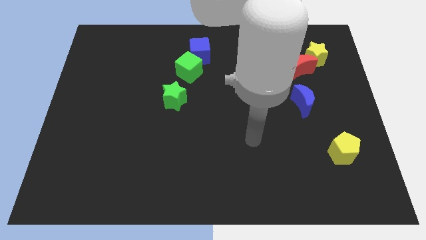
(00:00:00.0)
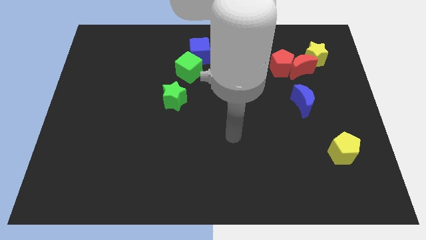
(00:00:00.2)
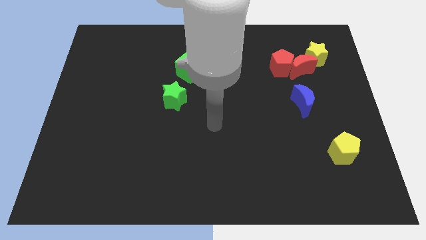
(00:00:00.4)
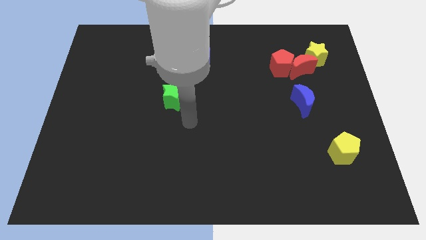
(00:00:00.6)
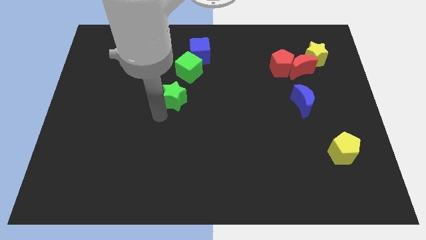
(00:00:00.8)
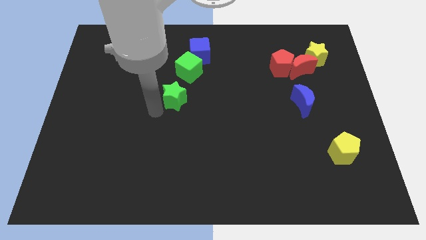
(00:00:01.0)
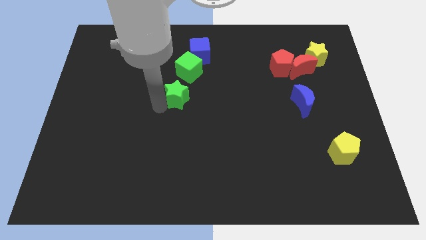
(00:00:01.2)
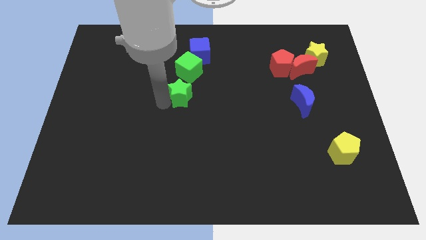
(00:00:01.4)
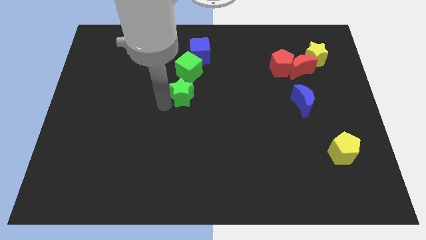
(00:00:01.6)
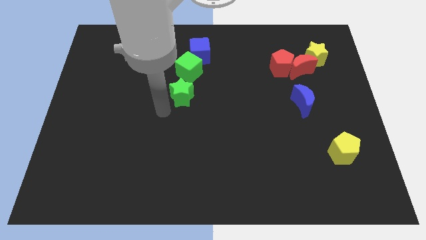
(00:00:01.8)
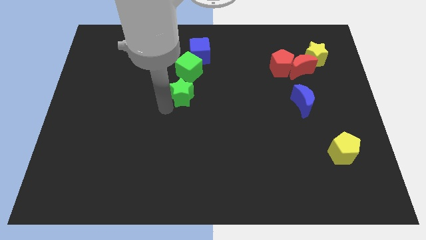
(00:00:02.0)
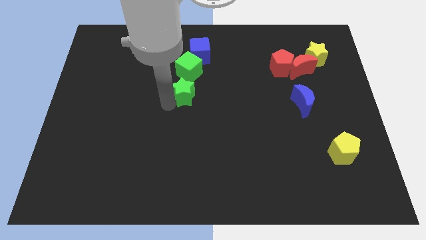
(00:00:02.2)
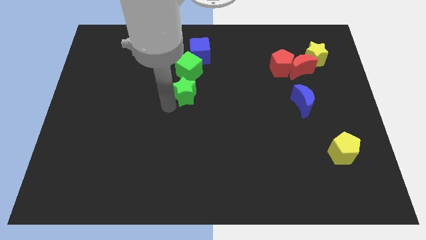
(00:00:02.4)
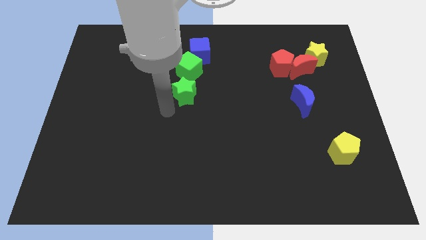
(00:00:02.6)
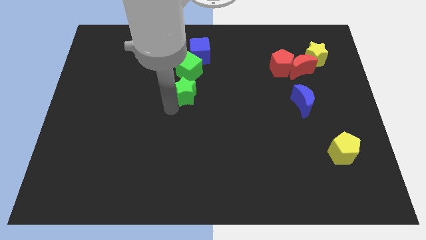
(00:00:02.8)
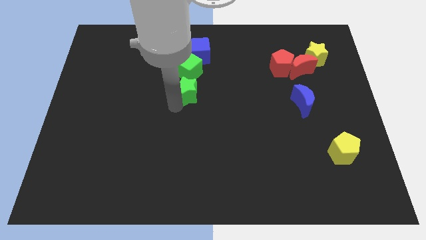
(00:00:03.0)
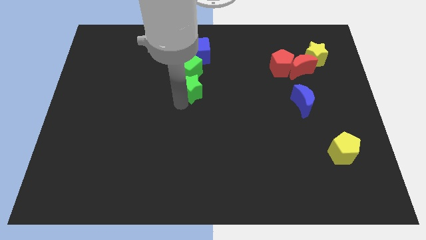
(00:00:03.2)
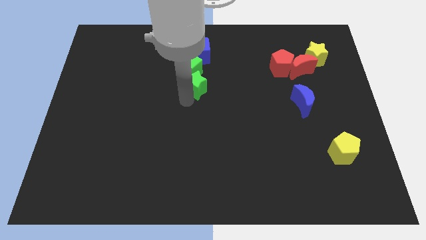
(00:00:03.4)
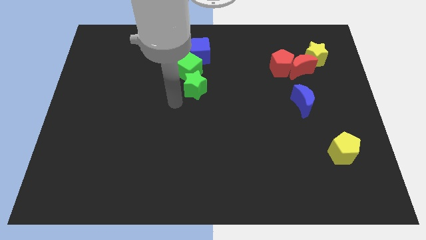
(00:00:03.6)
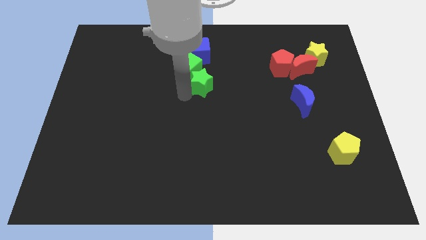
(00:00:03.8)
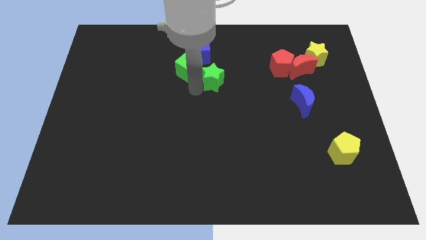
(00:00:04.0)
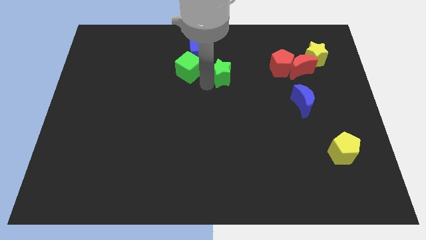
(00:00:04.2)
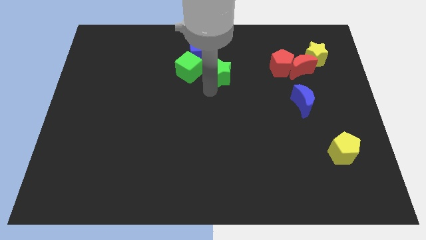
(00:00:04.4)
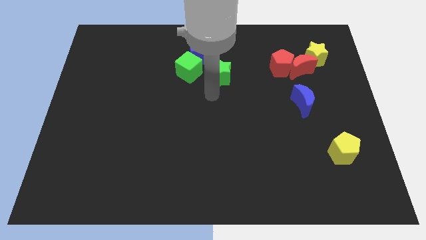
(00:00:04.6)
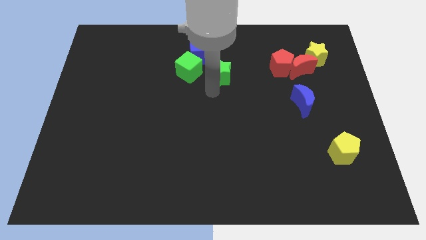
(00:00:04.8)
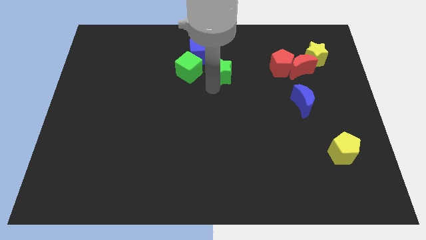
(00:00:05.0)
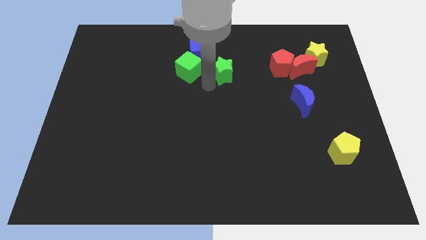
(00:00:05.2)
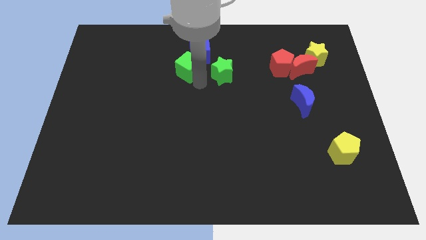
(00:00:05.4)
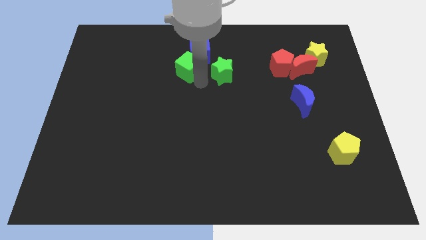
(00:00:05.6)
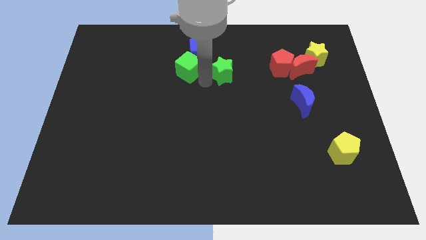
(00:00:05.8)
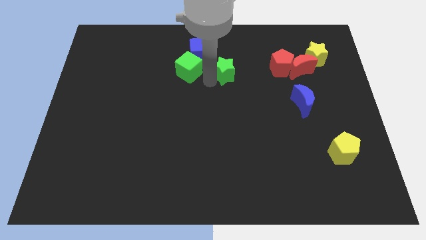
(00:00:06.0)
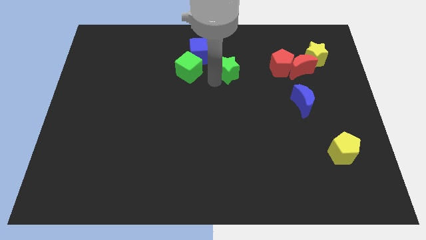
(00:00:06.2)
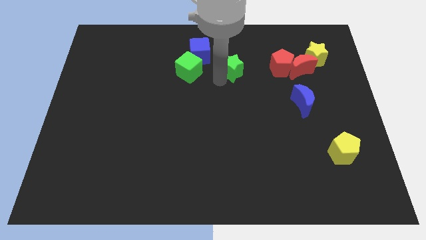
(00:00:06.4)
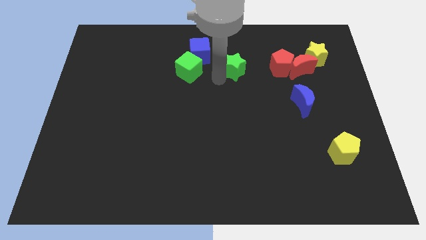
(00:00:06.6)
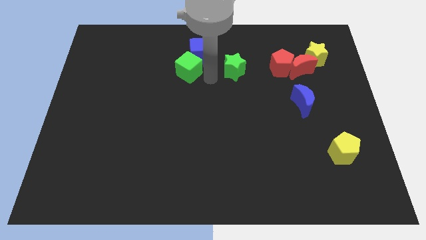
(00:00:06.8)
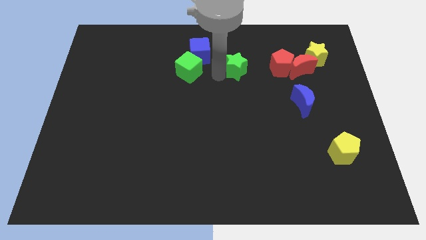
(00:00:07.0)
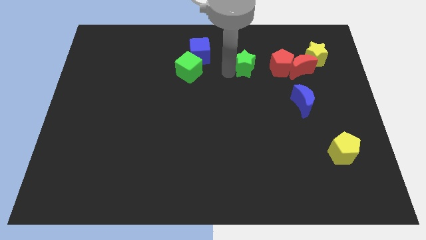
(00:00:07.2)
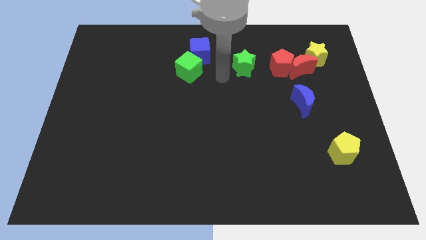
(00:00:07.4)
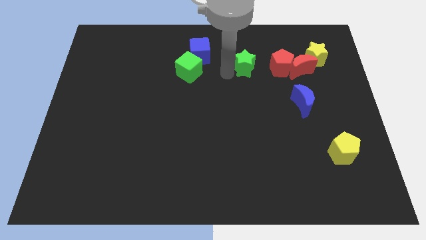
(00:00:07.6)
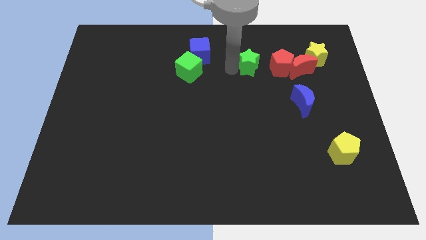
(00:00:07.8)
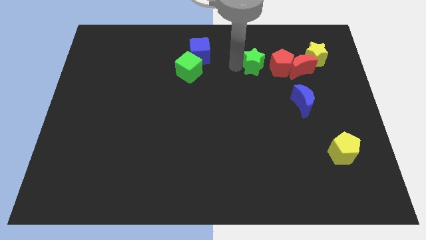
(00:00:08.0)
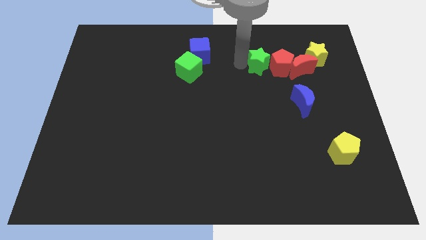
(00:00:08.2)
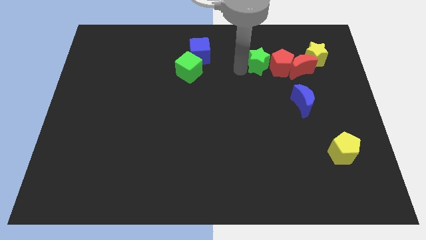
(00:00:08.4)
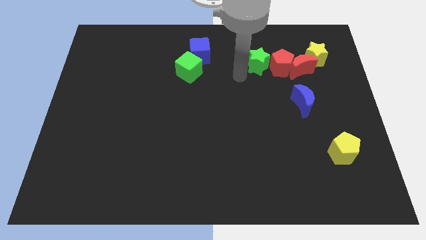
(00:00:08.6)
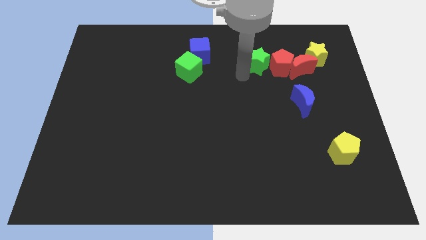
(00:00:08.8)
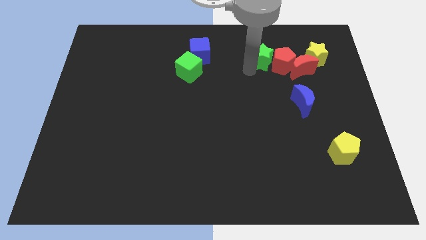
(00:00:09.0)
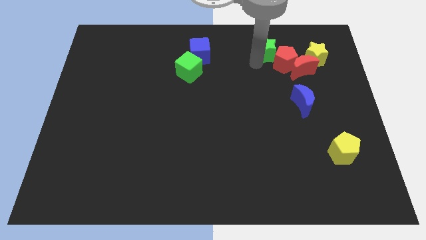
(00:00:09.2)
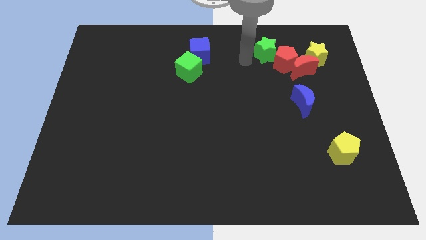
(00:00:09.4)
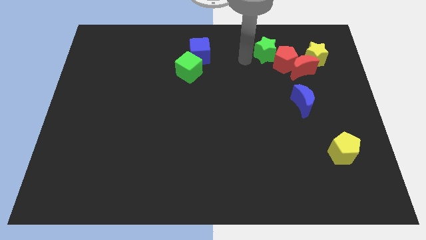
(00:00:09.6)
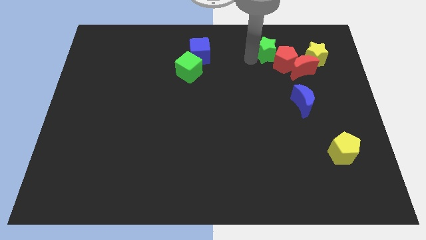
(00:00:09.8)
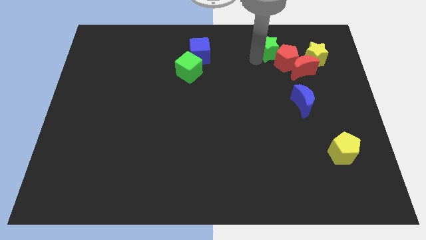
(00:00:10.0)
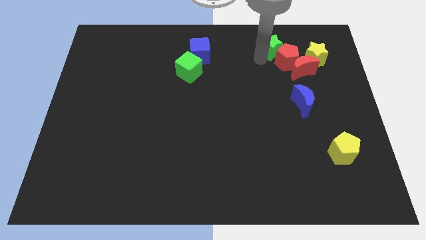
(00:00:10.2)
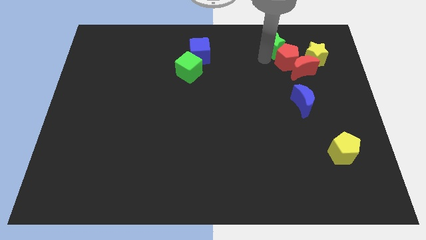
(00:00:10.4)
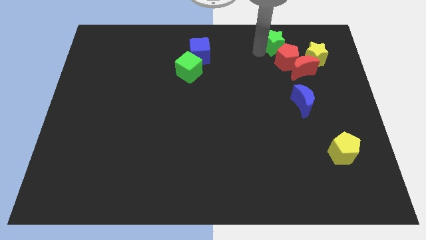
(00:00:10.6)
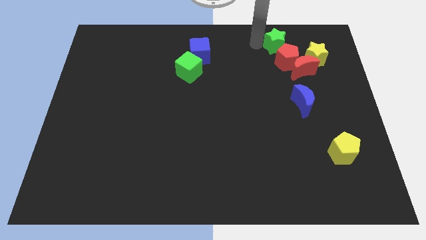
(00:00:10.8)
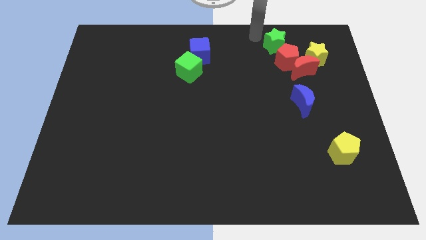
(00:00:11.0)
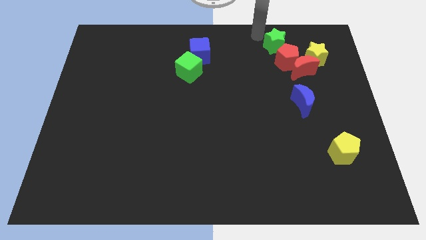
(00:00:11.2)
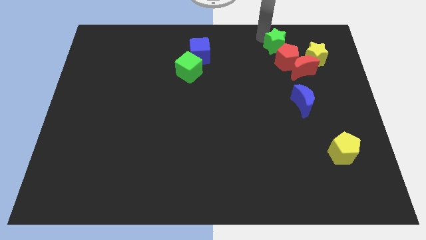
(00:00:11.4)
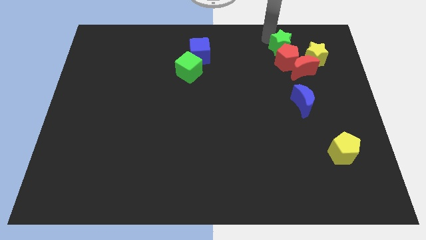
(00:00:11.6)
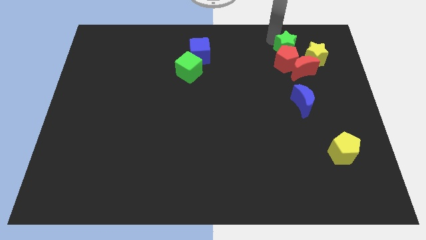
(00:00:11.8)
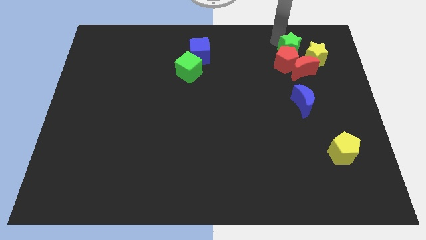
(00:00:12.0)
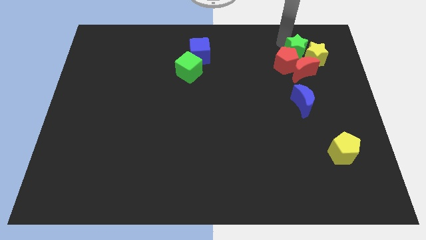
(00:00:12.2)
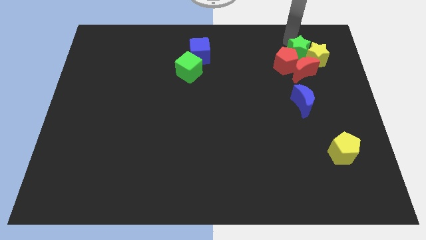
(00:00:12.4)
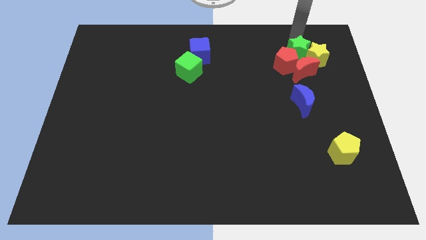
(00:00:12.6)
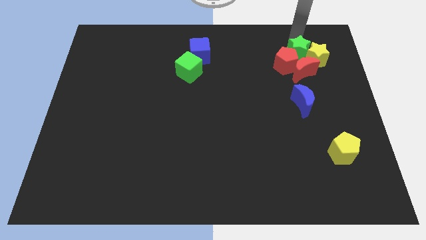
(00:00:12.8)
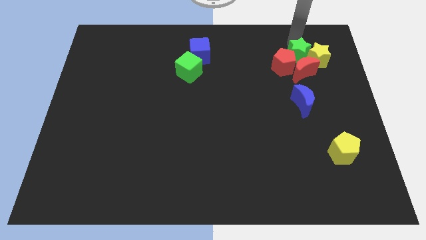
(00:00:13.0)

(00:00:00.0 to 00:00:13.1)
move the green star to the top of the blue moon
